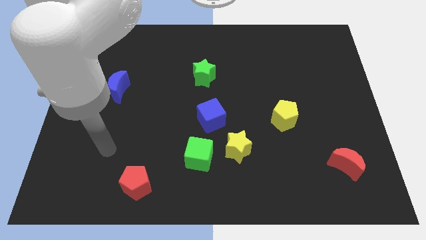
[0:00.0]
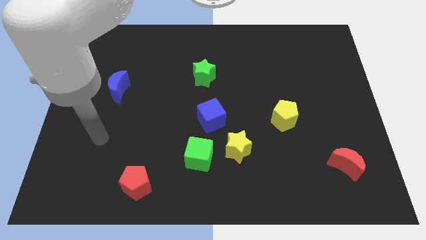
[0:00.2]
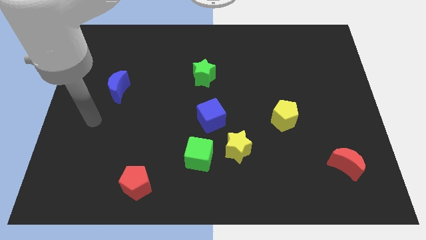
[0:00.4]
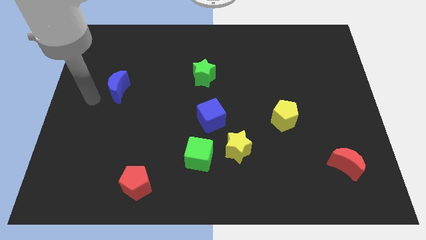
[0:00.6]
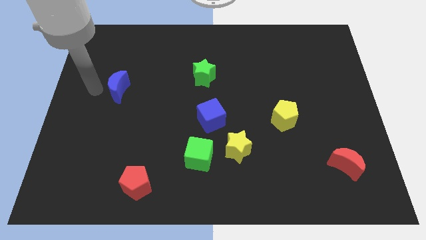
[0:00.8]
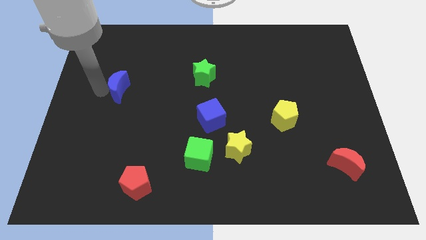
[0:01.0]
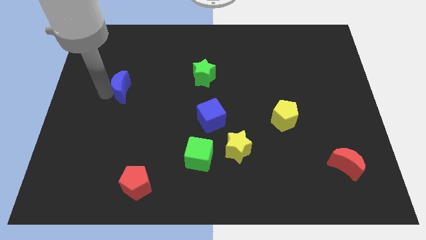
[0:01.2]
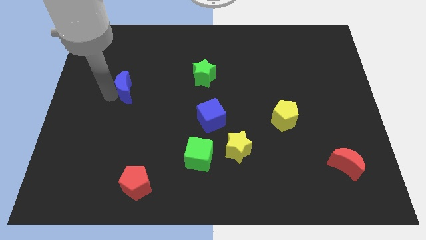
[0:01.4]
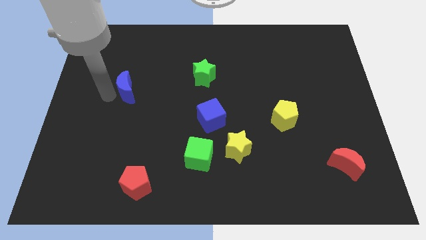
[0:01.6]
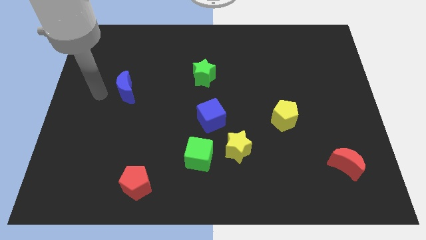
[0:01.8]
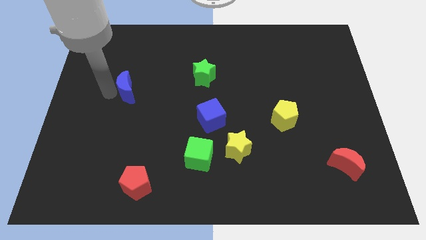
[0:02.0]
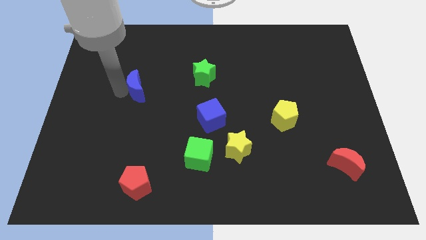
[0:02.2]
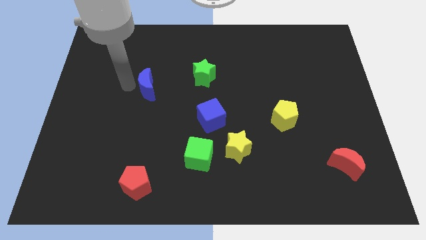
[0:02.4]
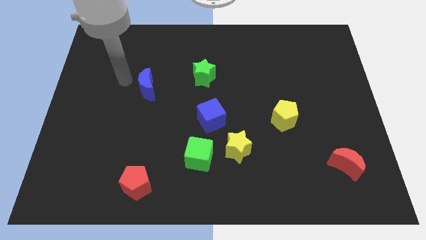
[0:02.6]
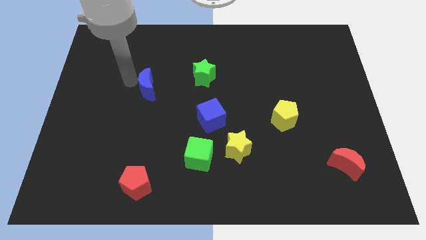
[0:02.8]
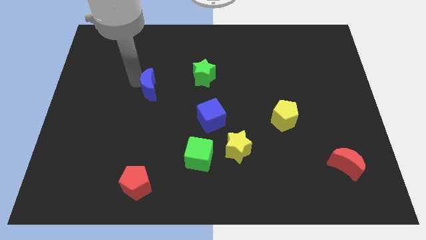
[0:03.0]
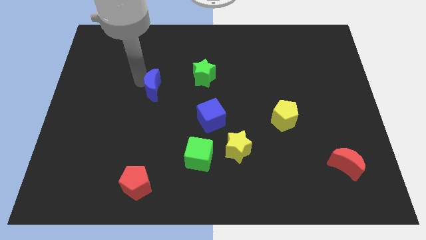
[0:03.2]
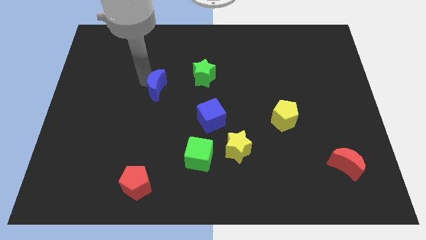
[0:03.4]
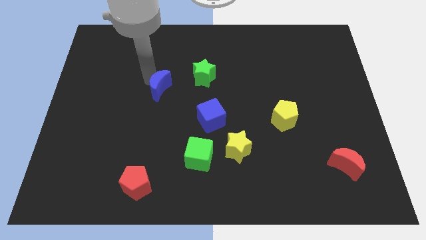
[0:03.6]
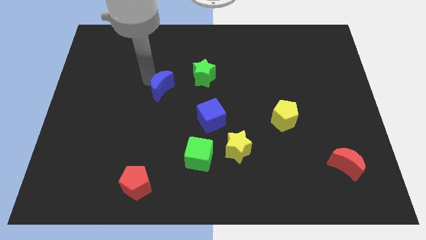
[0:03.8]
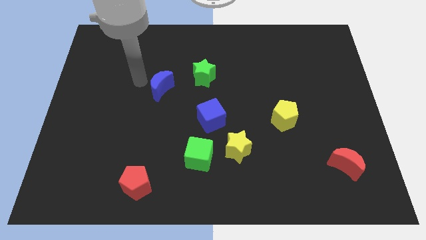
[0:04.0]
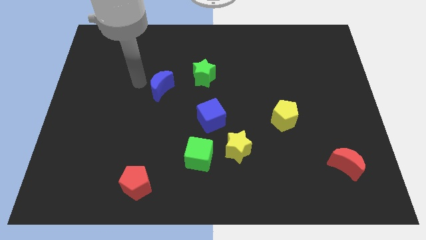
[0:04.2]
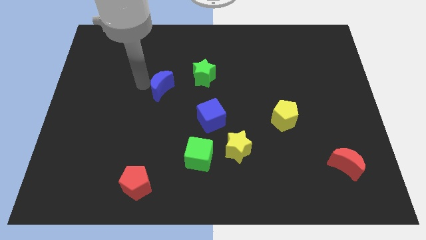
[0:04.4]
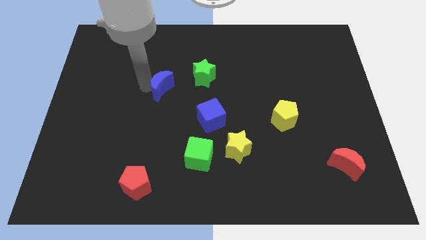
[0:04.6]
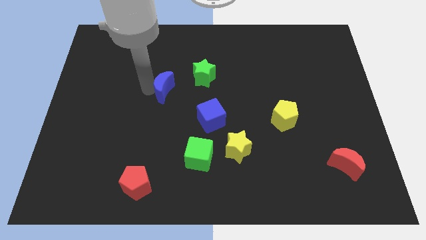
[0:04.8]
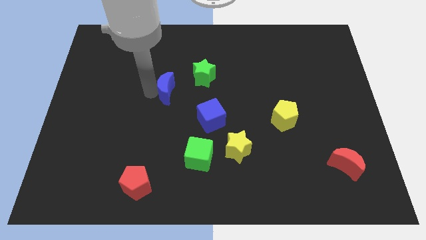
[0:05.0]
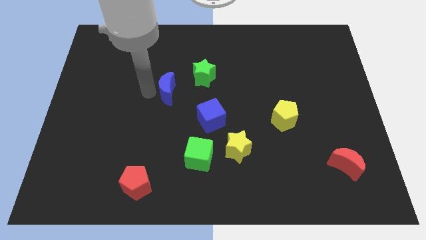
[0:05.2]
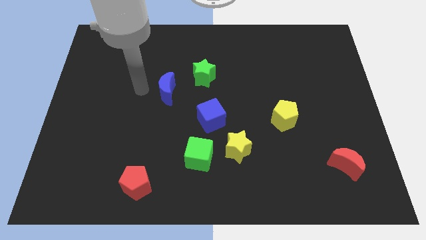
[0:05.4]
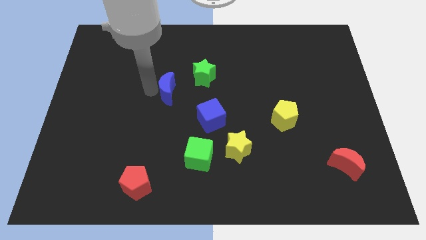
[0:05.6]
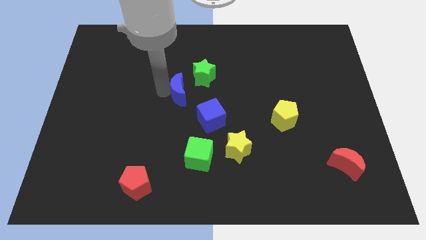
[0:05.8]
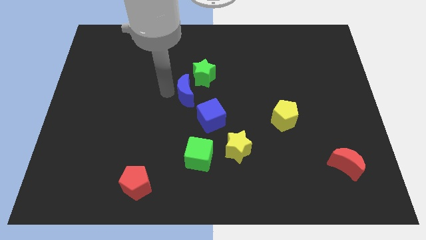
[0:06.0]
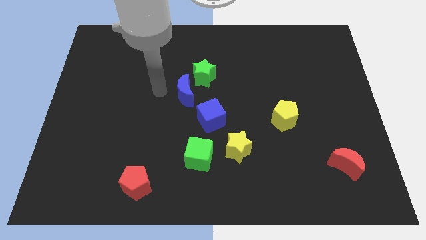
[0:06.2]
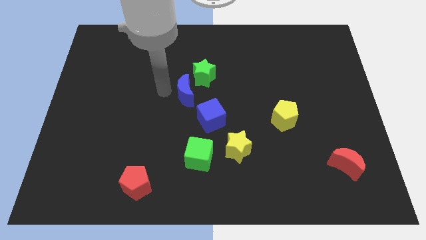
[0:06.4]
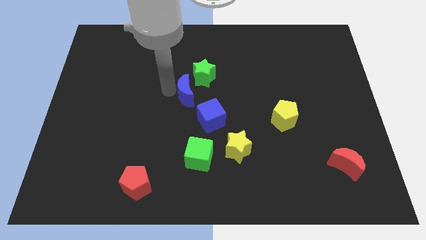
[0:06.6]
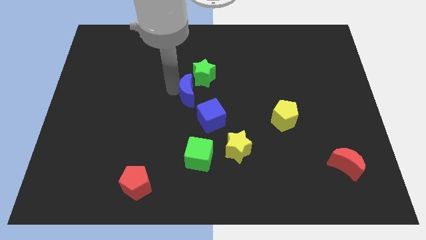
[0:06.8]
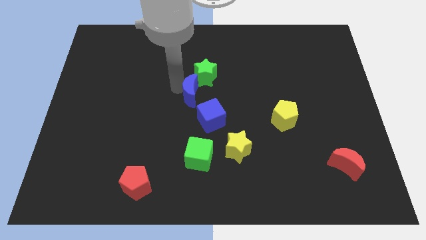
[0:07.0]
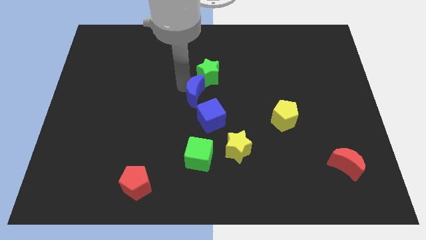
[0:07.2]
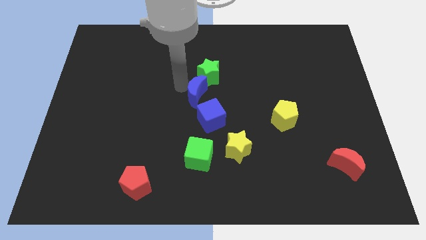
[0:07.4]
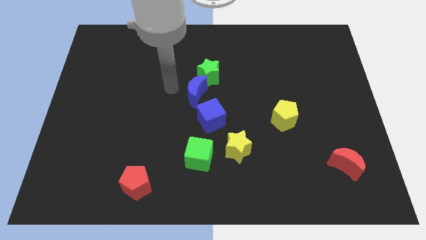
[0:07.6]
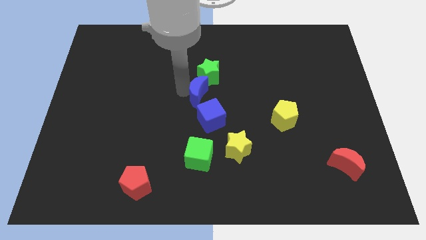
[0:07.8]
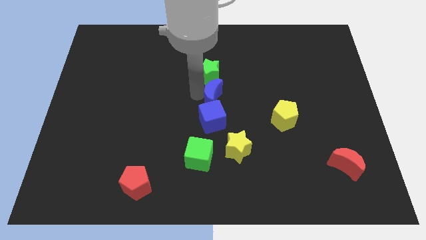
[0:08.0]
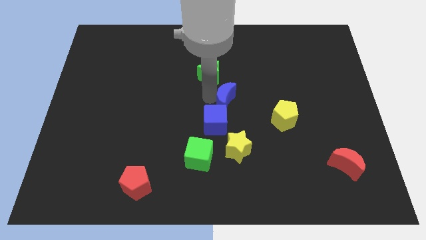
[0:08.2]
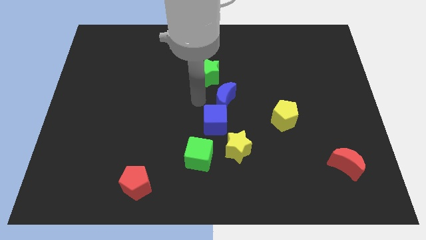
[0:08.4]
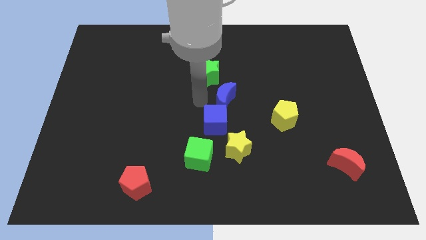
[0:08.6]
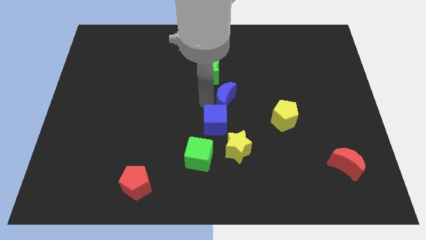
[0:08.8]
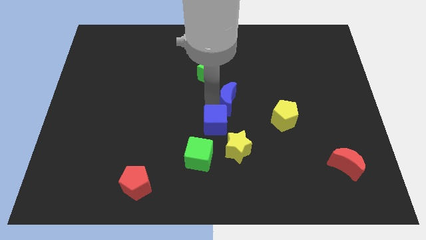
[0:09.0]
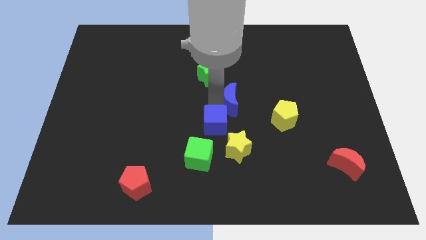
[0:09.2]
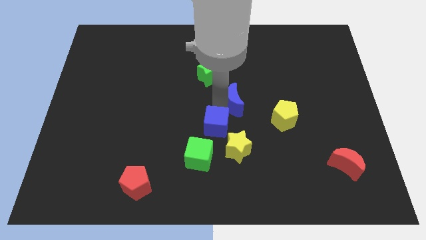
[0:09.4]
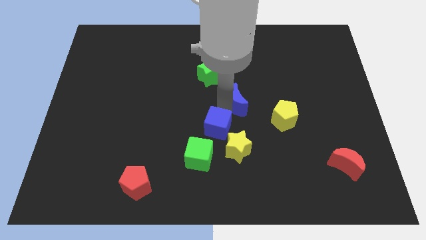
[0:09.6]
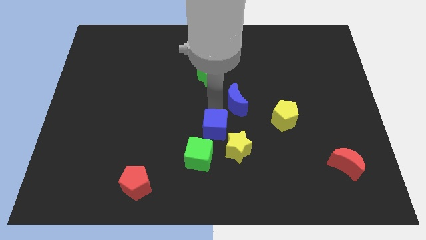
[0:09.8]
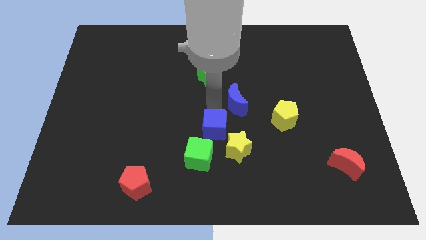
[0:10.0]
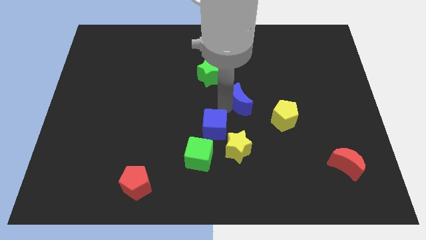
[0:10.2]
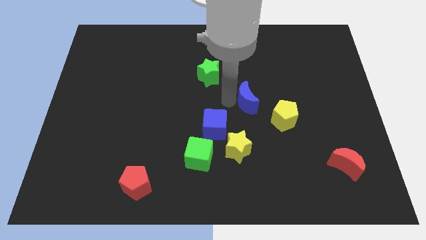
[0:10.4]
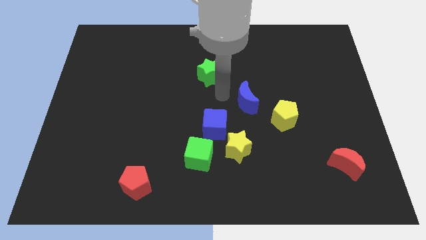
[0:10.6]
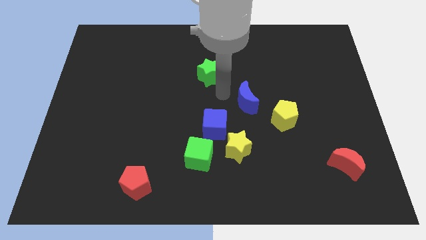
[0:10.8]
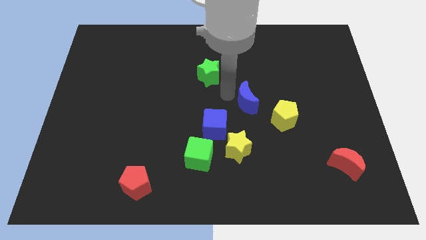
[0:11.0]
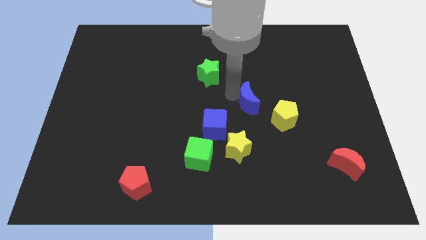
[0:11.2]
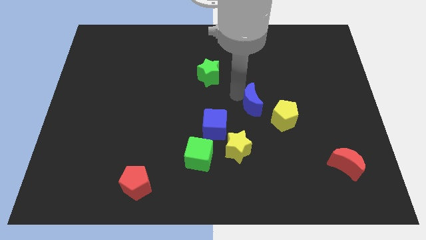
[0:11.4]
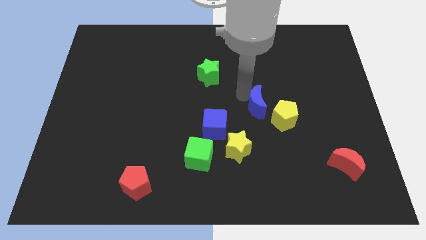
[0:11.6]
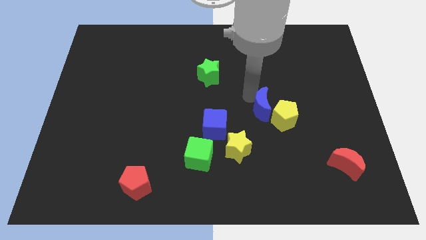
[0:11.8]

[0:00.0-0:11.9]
put the blue moon next to the yellow pentagon
